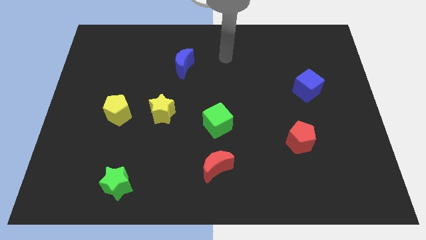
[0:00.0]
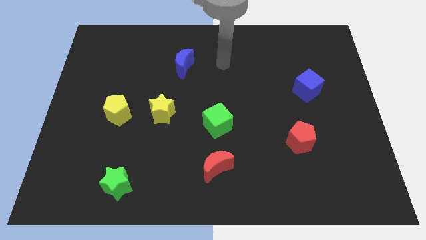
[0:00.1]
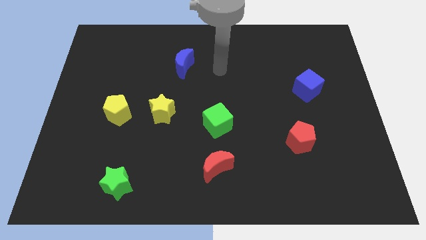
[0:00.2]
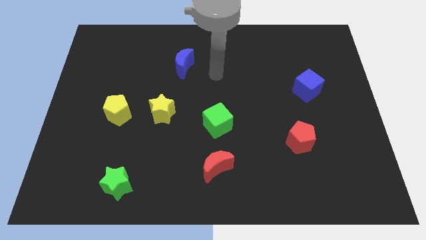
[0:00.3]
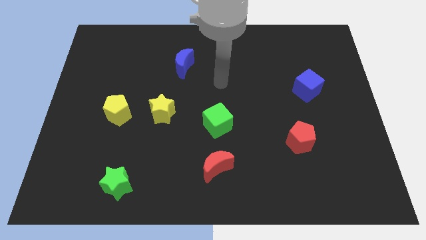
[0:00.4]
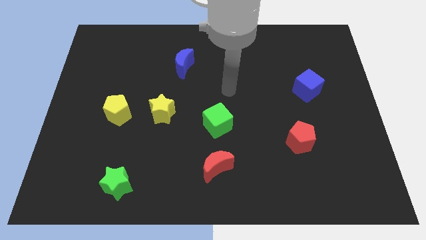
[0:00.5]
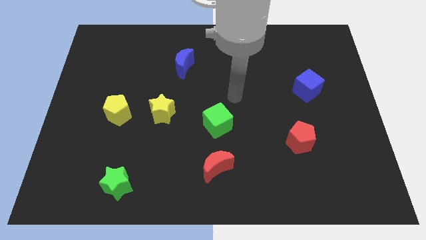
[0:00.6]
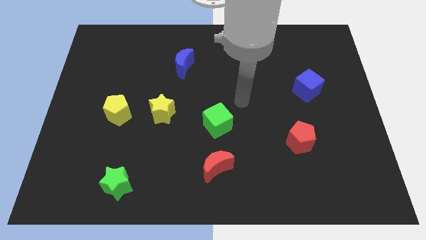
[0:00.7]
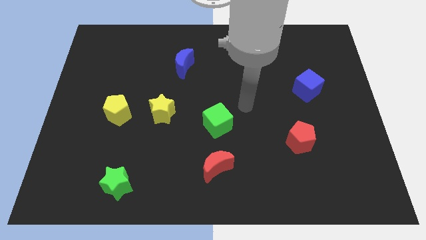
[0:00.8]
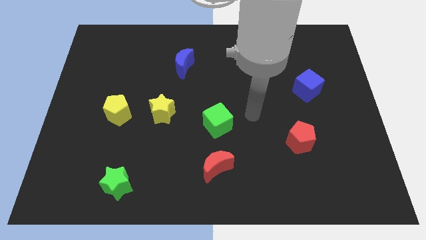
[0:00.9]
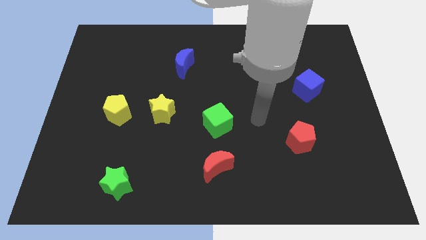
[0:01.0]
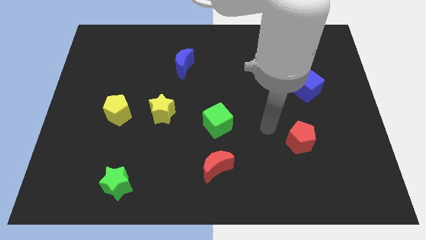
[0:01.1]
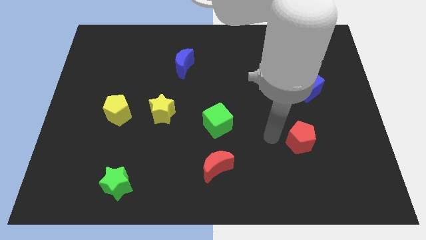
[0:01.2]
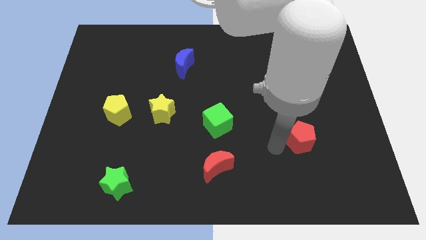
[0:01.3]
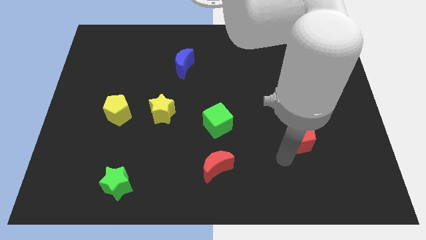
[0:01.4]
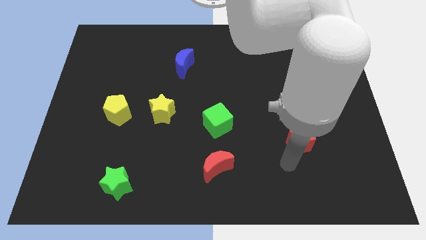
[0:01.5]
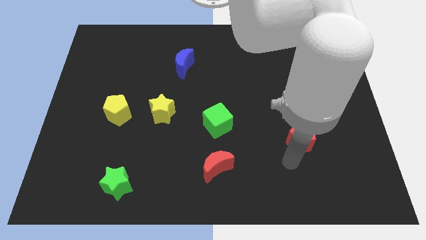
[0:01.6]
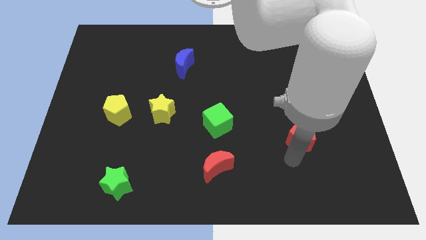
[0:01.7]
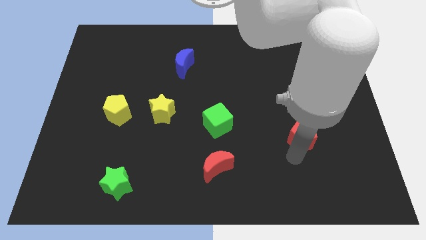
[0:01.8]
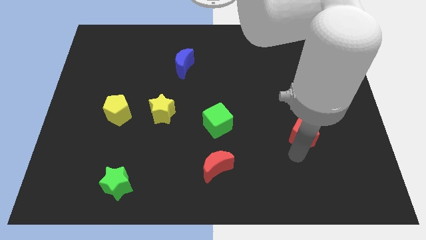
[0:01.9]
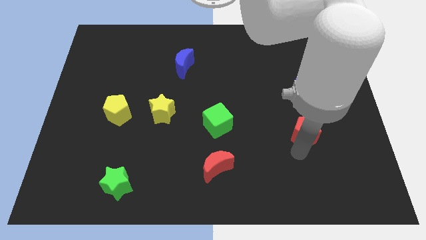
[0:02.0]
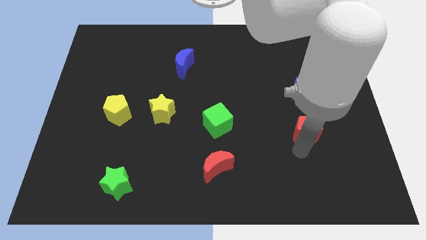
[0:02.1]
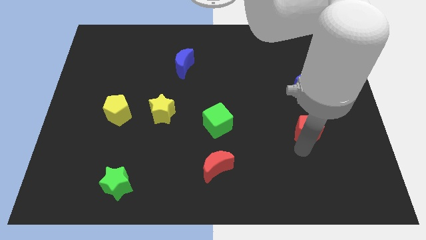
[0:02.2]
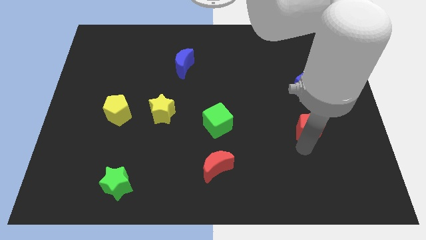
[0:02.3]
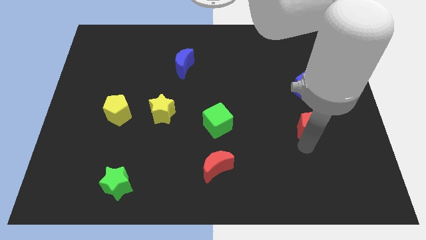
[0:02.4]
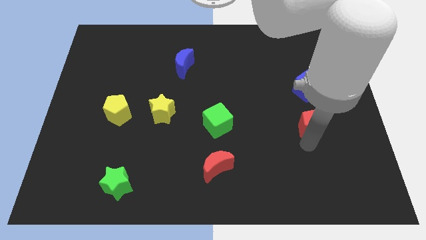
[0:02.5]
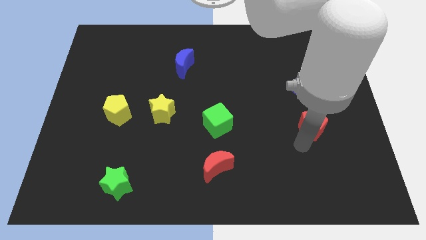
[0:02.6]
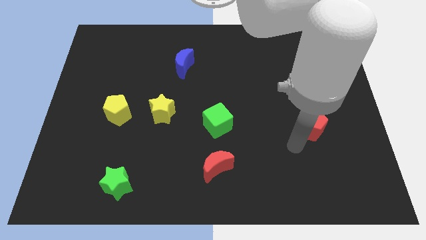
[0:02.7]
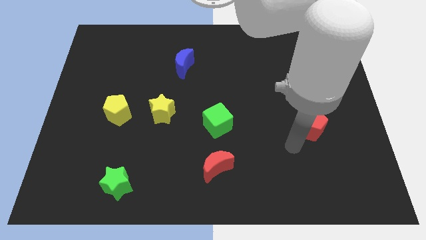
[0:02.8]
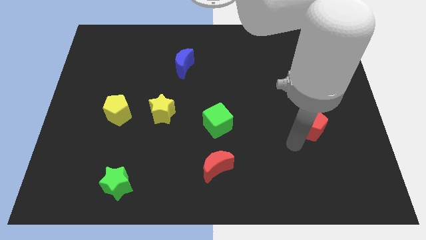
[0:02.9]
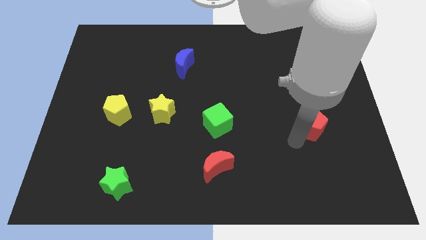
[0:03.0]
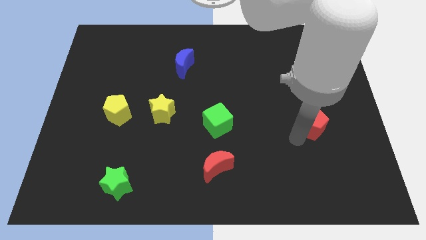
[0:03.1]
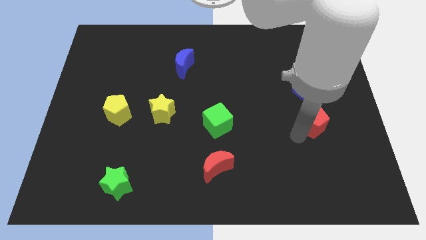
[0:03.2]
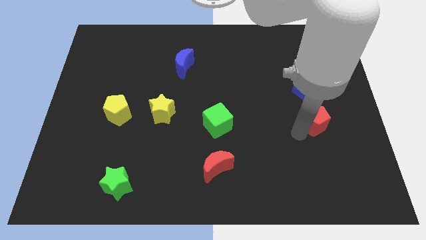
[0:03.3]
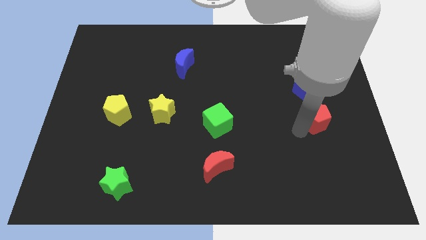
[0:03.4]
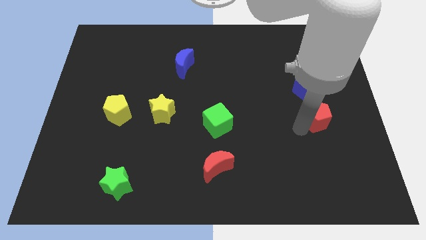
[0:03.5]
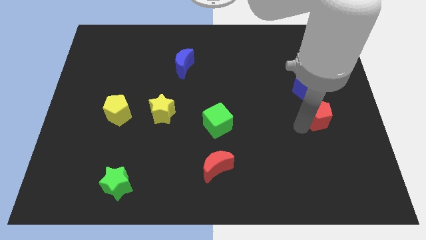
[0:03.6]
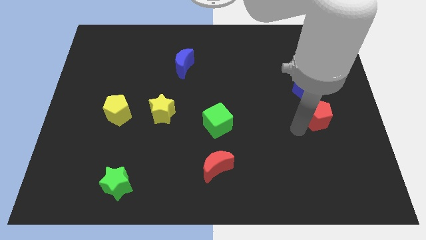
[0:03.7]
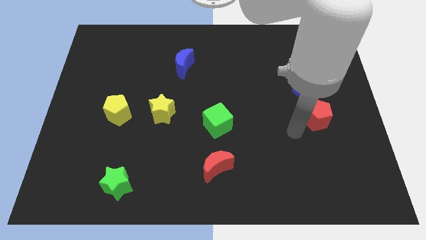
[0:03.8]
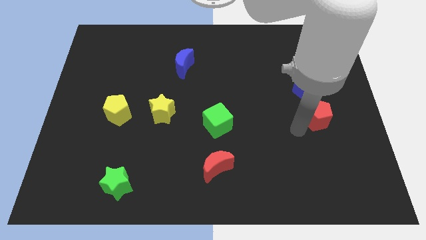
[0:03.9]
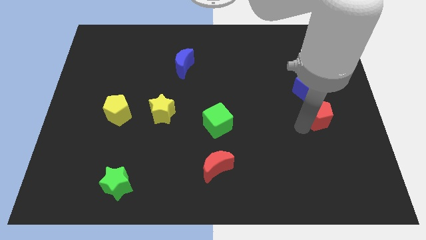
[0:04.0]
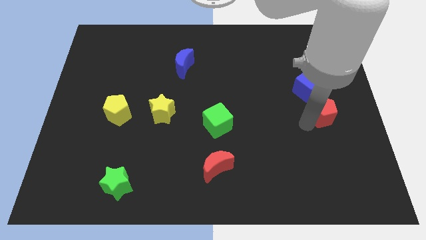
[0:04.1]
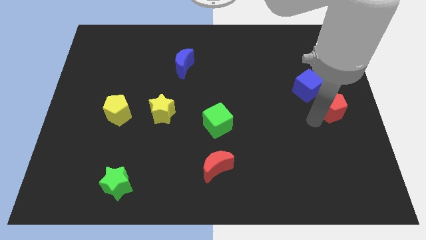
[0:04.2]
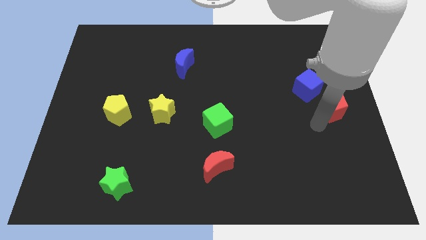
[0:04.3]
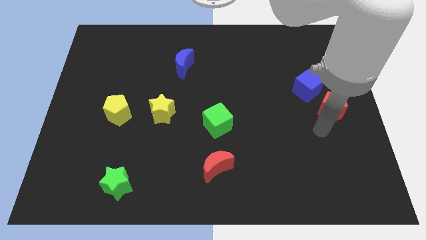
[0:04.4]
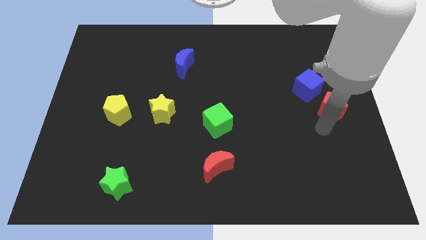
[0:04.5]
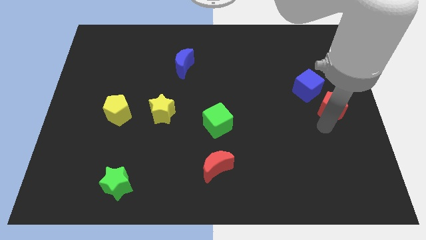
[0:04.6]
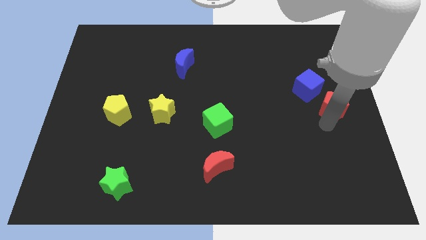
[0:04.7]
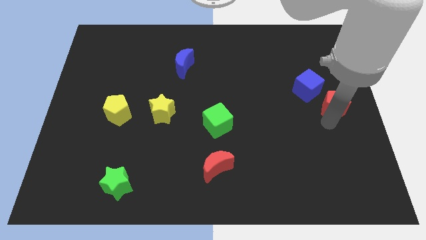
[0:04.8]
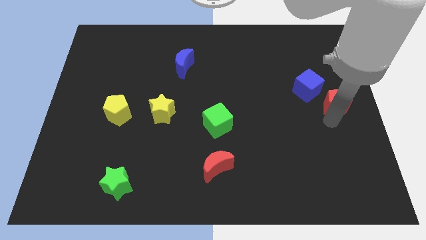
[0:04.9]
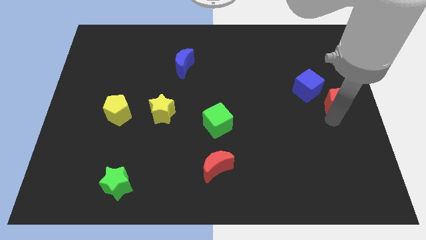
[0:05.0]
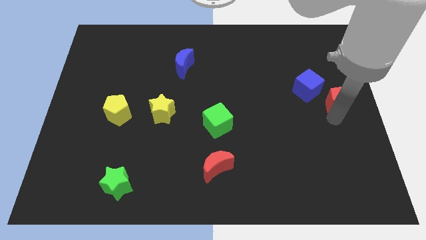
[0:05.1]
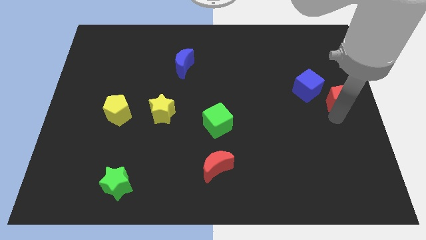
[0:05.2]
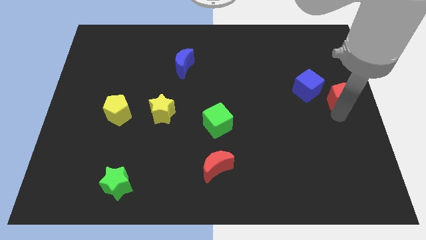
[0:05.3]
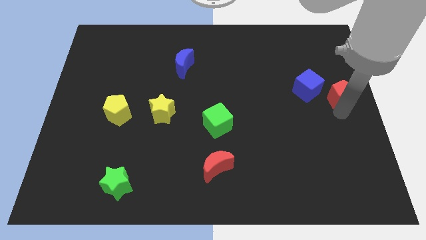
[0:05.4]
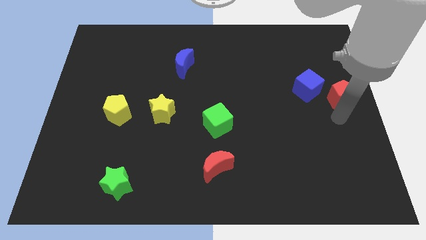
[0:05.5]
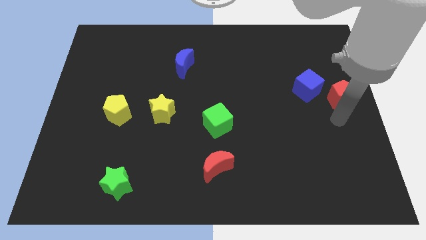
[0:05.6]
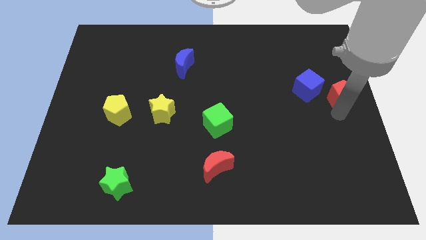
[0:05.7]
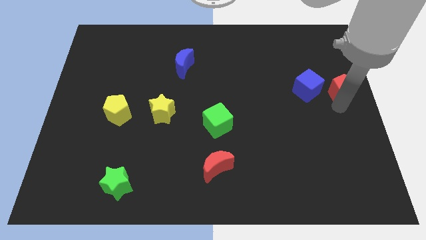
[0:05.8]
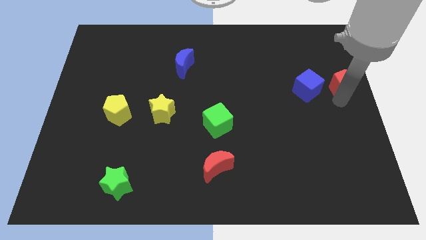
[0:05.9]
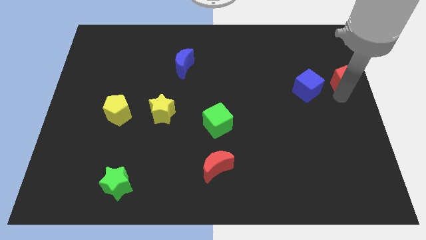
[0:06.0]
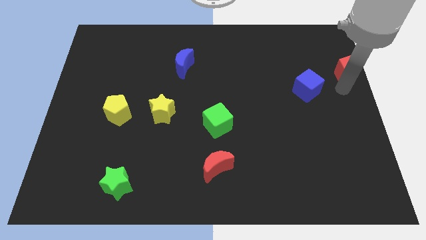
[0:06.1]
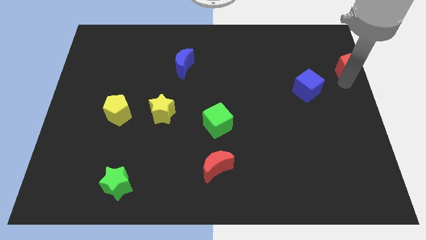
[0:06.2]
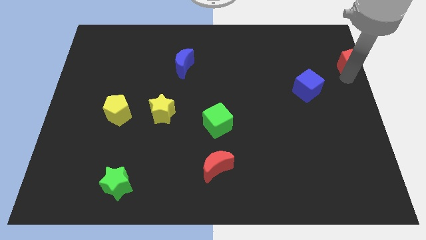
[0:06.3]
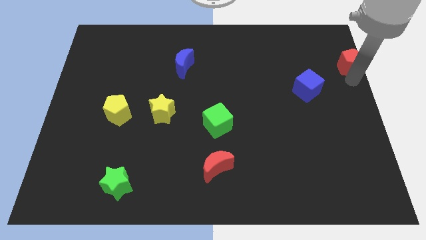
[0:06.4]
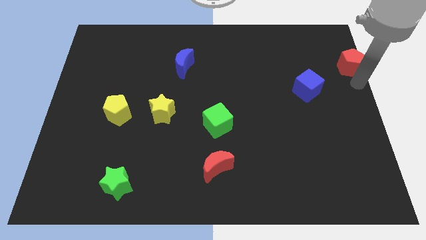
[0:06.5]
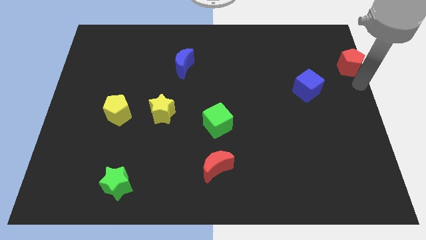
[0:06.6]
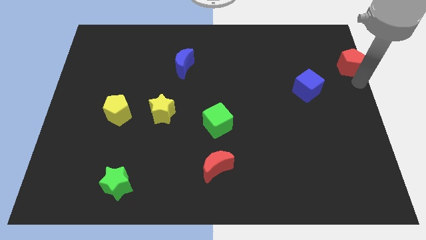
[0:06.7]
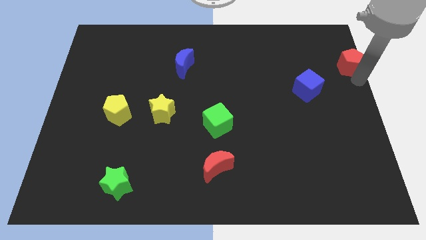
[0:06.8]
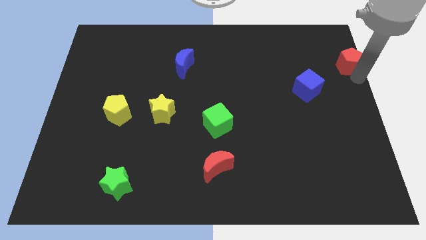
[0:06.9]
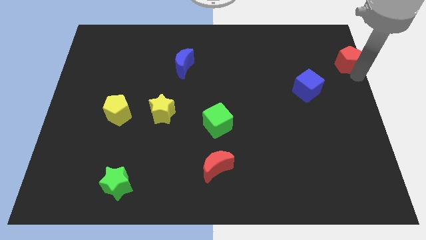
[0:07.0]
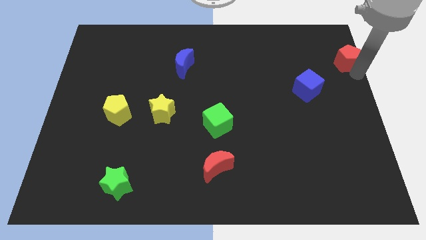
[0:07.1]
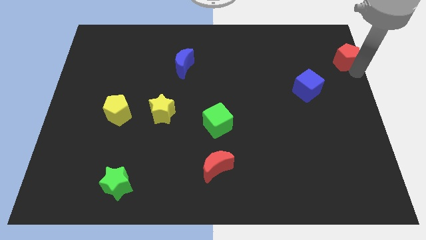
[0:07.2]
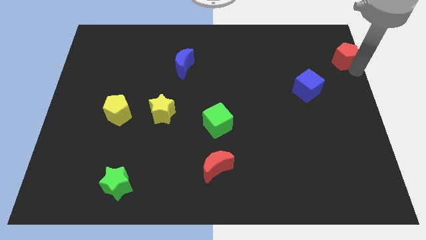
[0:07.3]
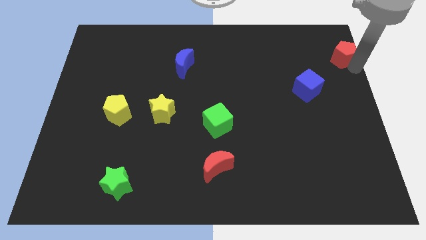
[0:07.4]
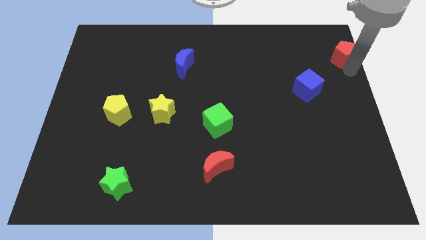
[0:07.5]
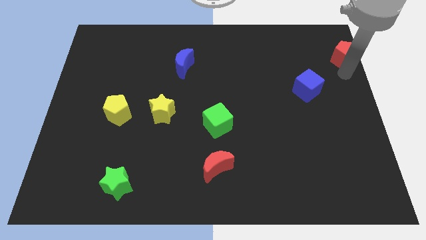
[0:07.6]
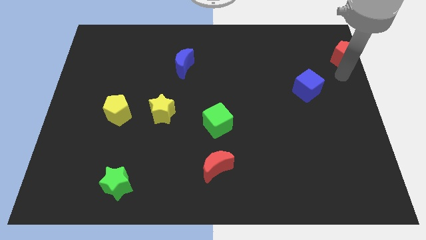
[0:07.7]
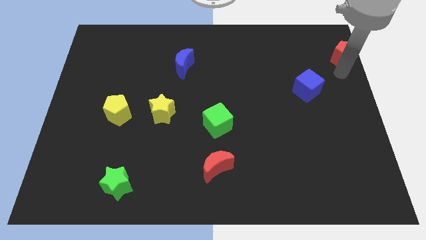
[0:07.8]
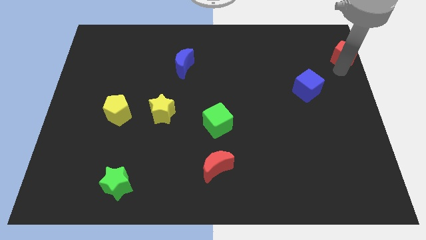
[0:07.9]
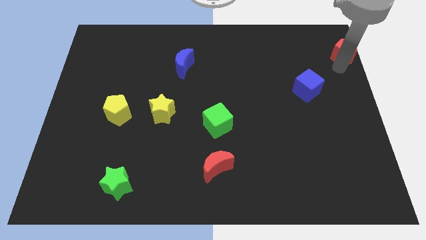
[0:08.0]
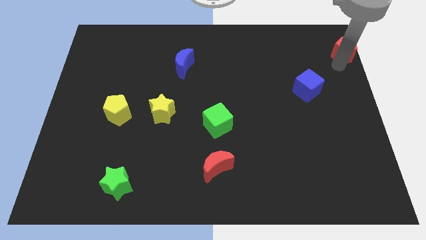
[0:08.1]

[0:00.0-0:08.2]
put the red pentagon to the top right corner
